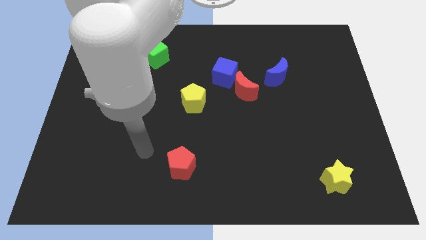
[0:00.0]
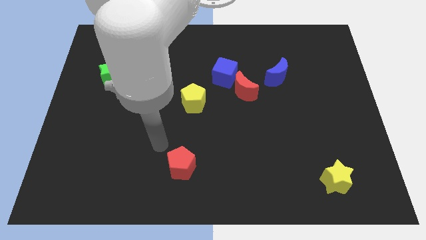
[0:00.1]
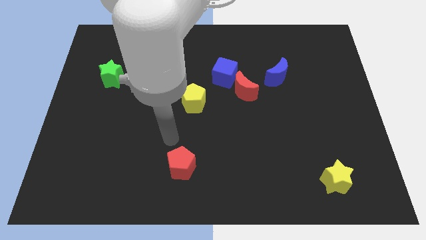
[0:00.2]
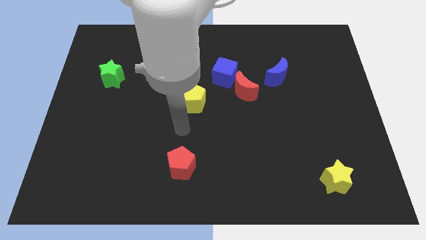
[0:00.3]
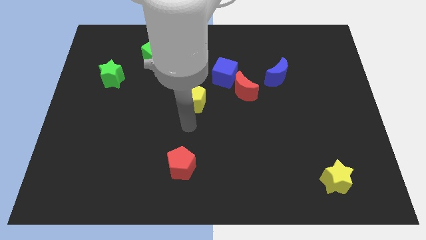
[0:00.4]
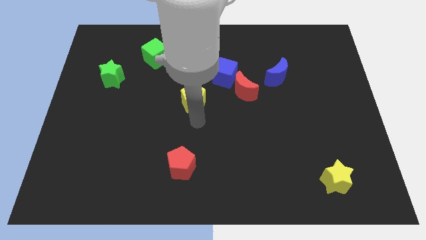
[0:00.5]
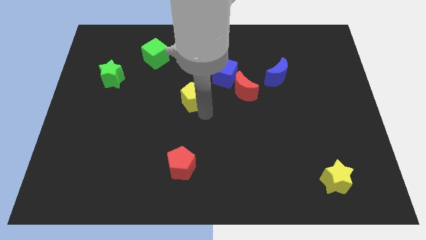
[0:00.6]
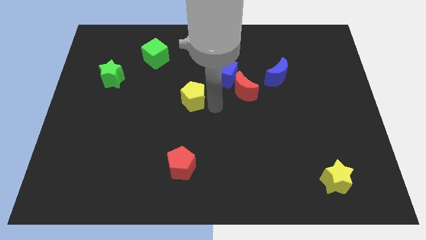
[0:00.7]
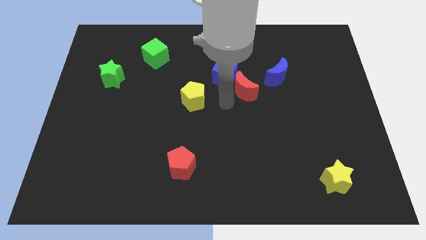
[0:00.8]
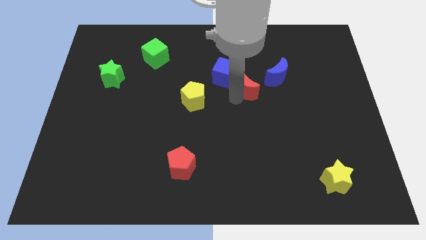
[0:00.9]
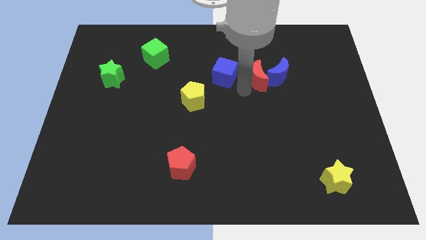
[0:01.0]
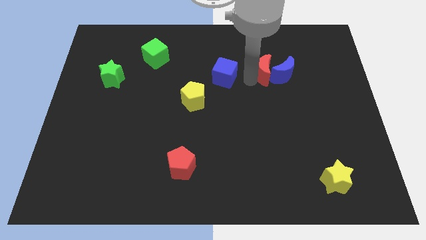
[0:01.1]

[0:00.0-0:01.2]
move the blue cube away from the red moon

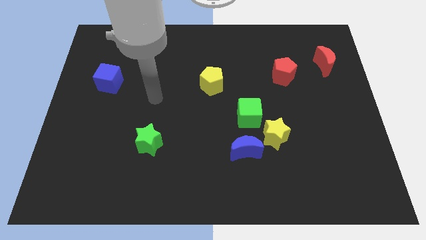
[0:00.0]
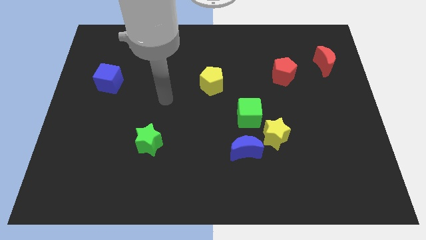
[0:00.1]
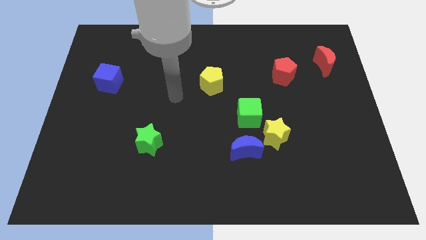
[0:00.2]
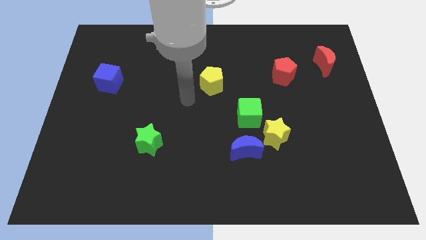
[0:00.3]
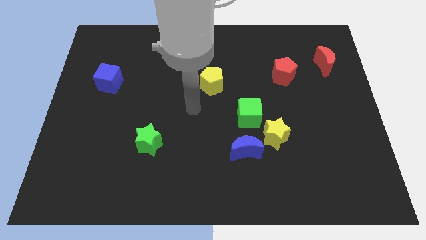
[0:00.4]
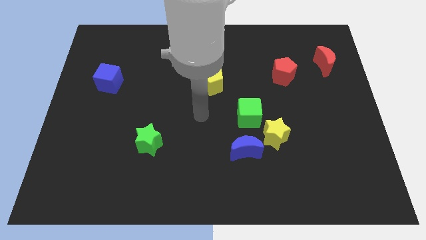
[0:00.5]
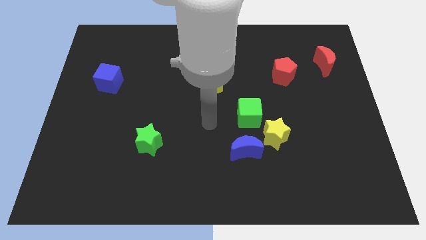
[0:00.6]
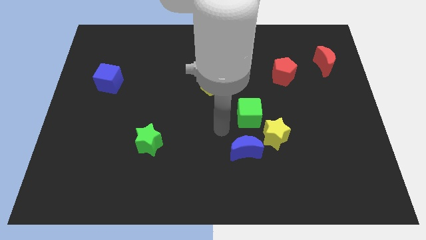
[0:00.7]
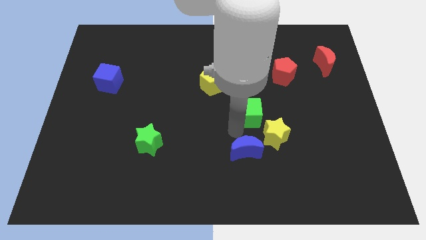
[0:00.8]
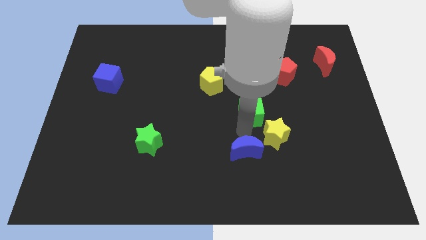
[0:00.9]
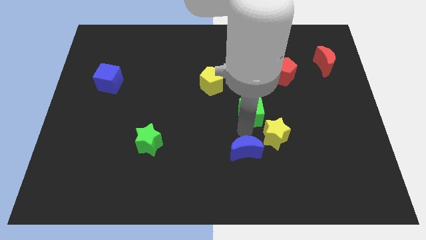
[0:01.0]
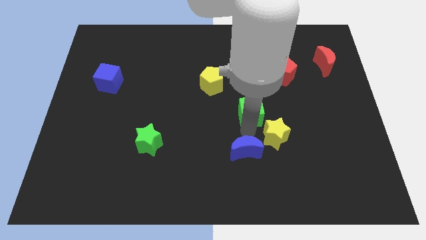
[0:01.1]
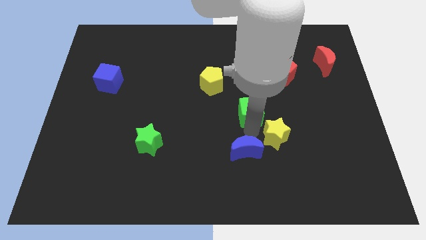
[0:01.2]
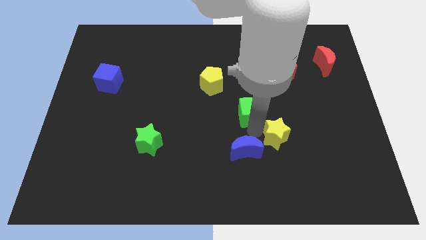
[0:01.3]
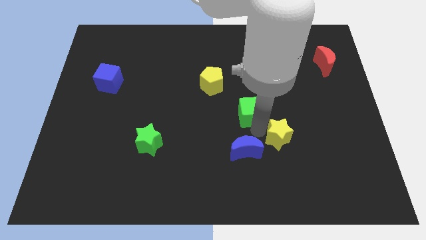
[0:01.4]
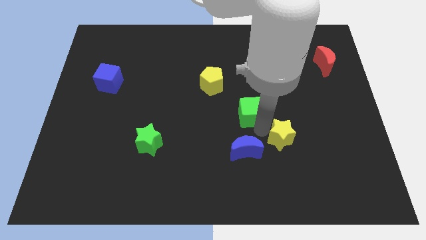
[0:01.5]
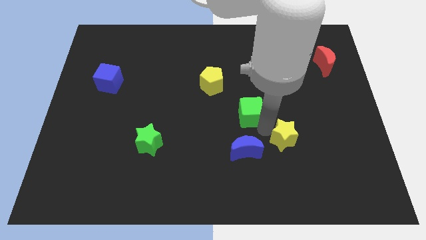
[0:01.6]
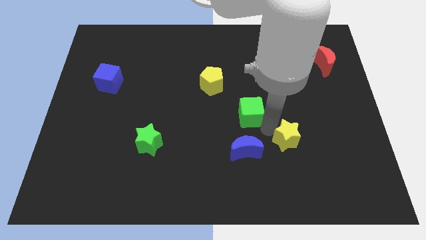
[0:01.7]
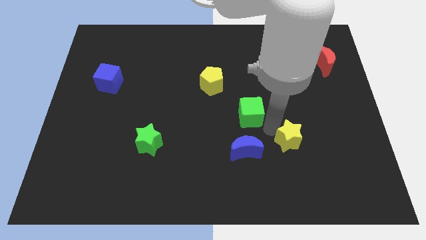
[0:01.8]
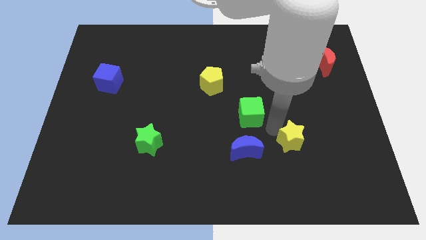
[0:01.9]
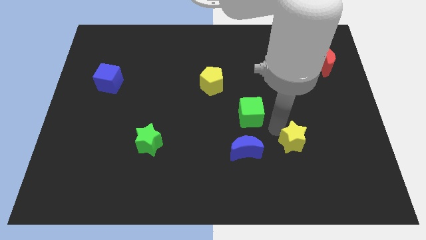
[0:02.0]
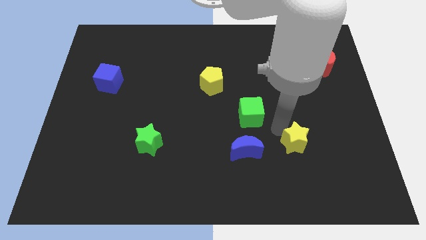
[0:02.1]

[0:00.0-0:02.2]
pull the yellow star apart from the blue moon and green cube

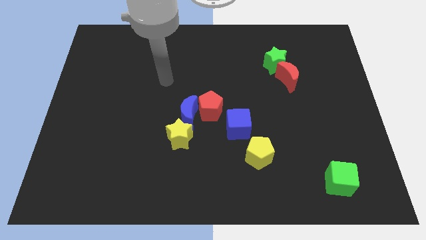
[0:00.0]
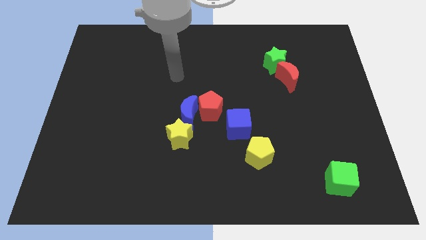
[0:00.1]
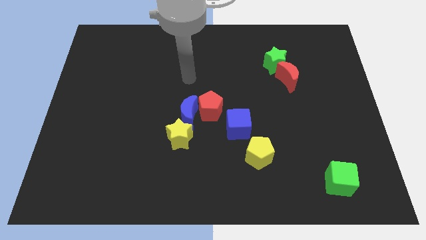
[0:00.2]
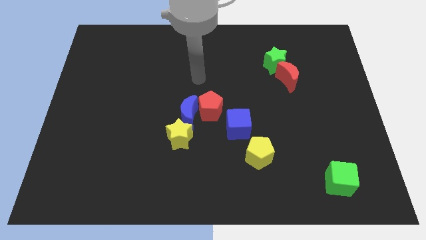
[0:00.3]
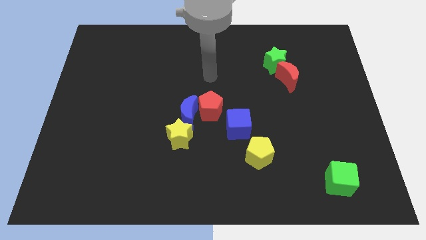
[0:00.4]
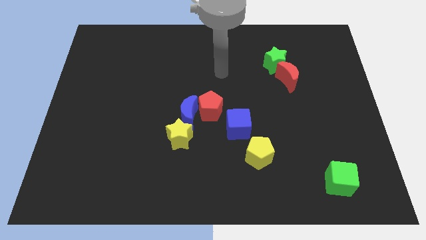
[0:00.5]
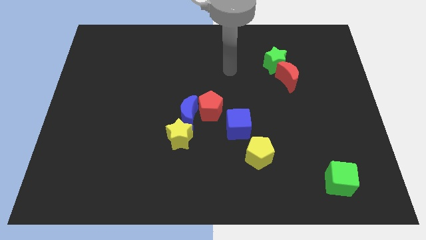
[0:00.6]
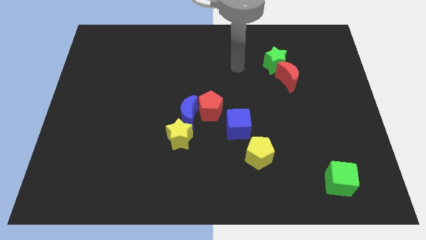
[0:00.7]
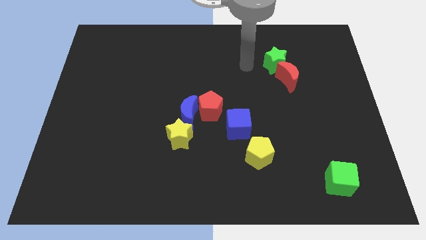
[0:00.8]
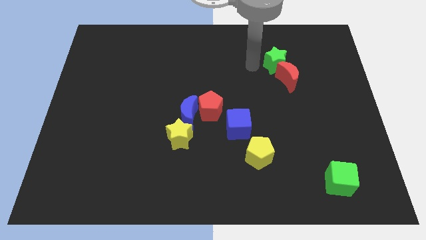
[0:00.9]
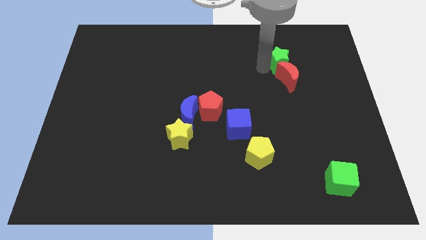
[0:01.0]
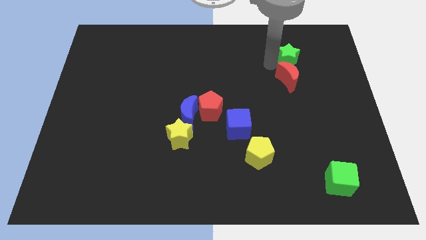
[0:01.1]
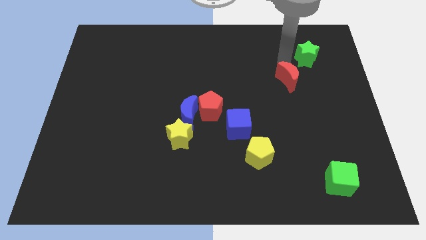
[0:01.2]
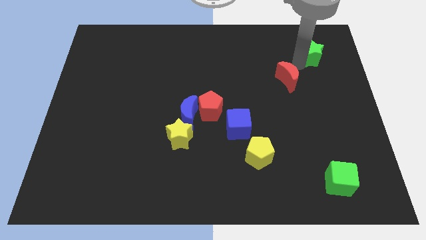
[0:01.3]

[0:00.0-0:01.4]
separate the red moon from the green star

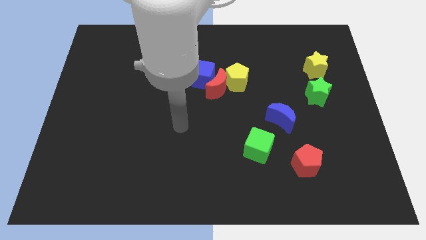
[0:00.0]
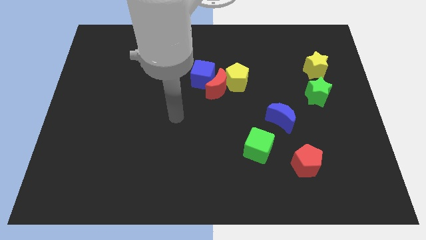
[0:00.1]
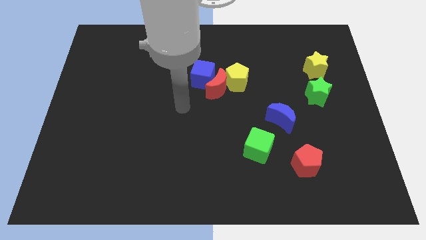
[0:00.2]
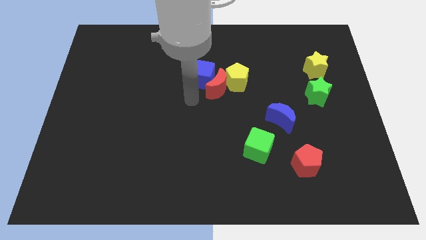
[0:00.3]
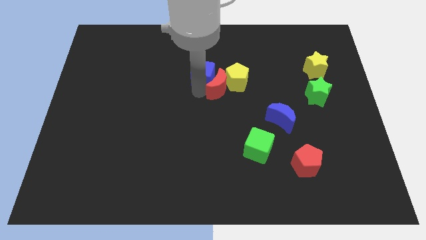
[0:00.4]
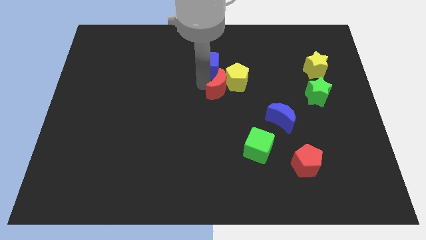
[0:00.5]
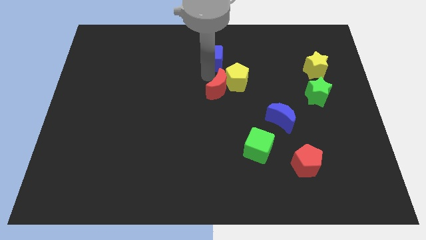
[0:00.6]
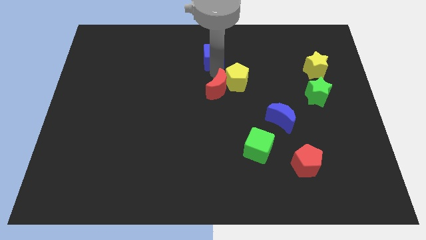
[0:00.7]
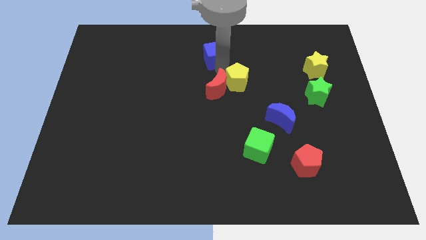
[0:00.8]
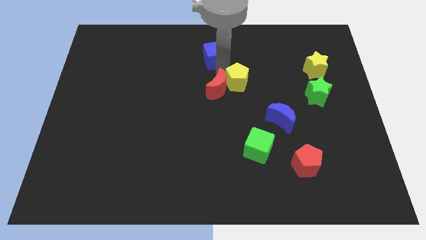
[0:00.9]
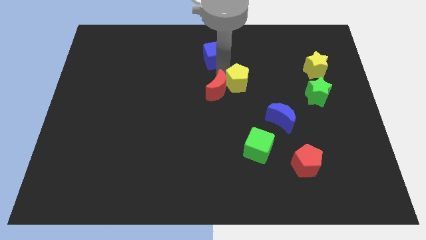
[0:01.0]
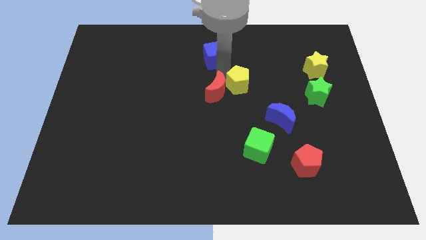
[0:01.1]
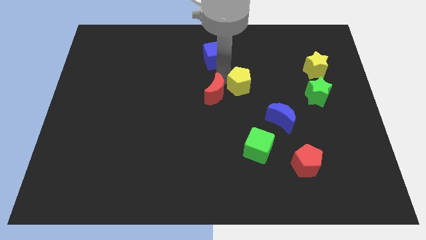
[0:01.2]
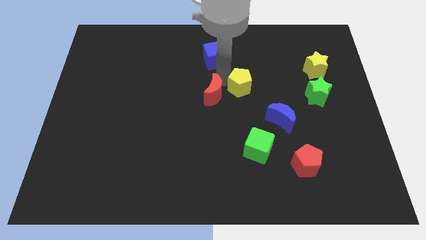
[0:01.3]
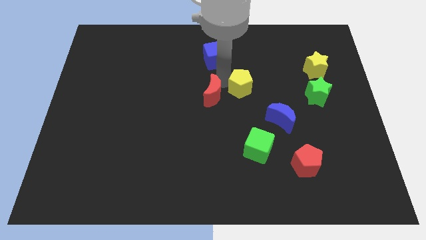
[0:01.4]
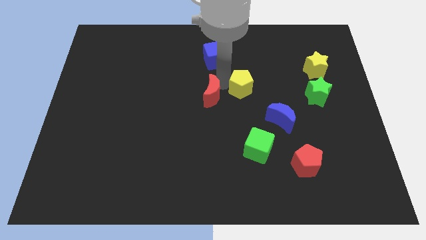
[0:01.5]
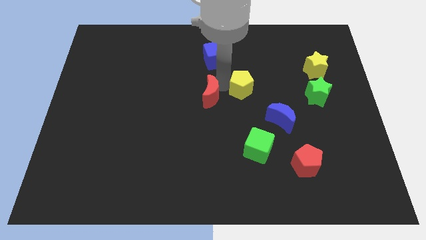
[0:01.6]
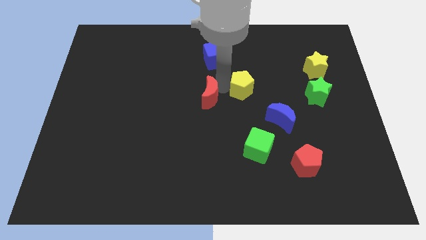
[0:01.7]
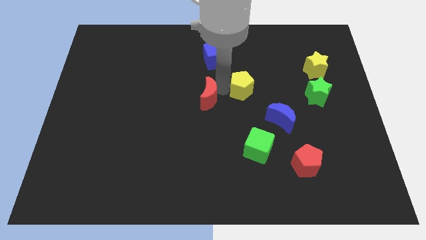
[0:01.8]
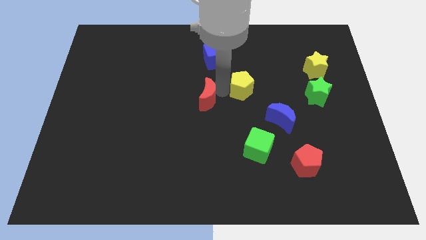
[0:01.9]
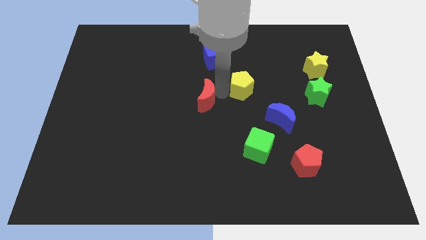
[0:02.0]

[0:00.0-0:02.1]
separate the red moon from the blue cube and yellow pentagon

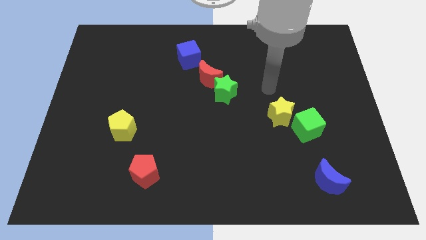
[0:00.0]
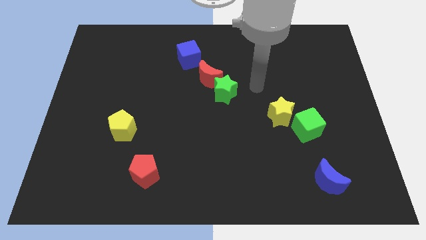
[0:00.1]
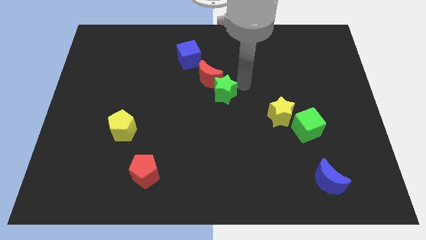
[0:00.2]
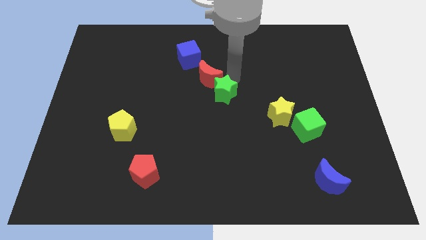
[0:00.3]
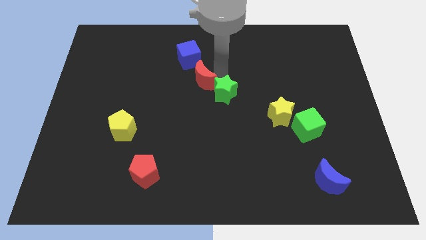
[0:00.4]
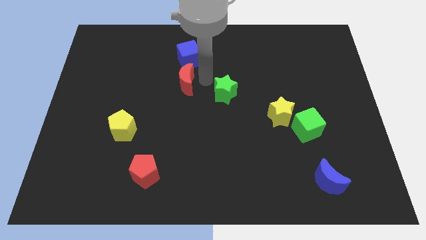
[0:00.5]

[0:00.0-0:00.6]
separate the green star from the red moon

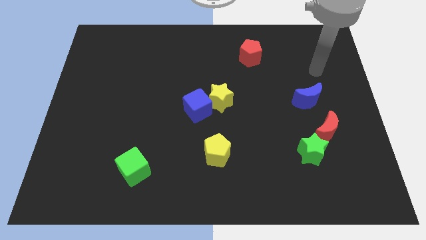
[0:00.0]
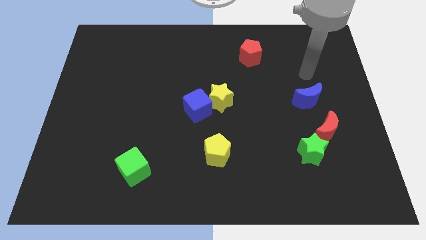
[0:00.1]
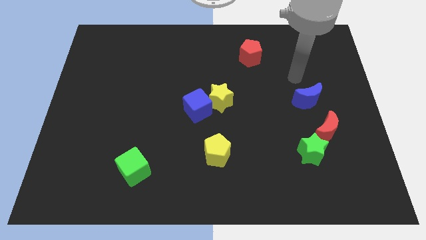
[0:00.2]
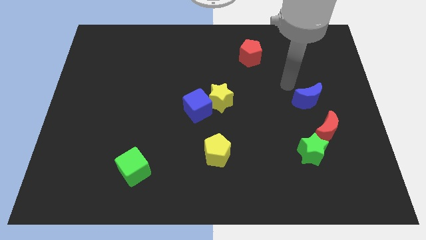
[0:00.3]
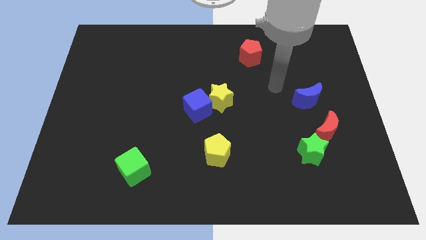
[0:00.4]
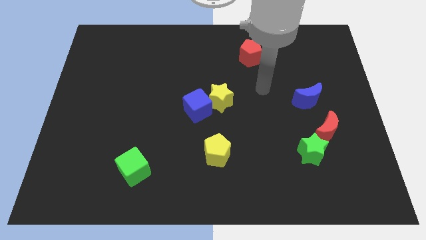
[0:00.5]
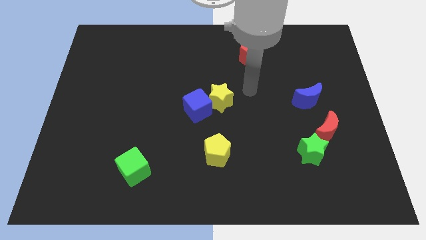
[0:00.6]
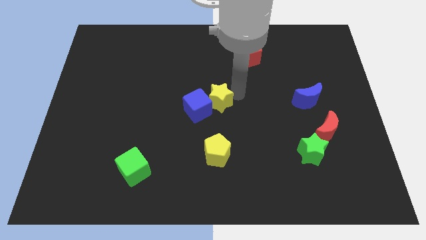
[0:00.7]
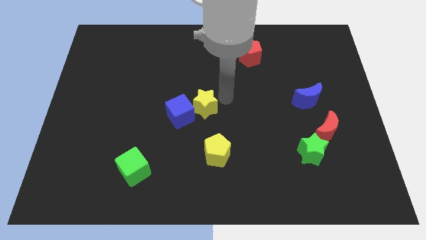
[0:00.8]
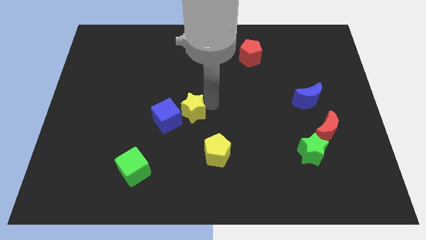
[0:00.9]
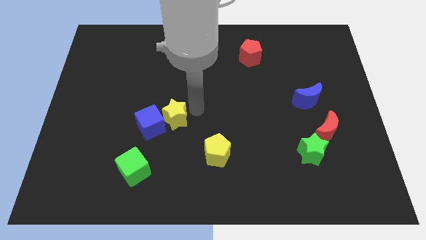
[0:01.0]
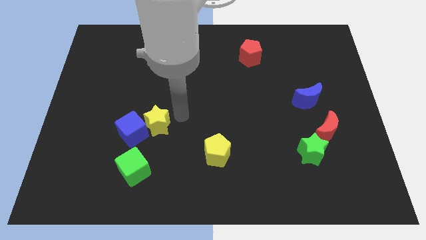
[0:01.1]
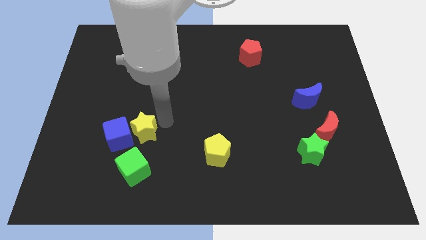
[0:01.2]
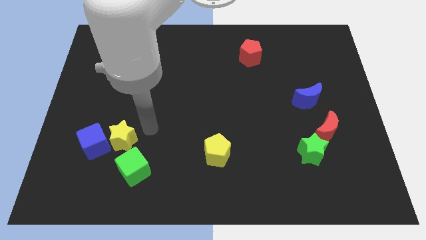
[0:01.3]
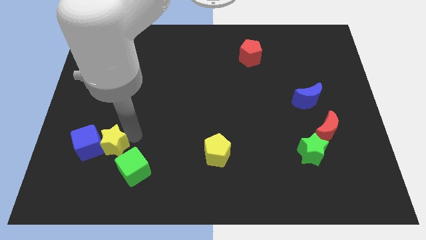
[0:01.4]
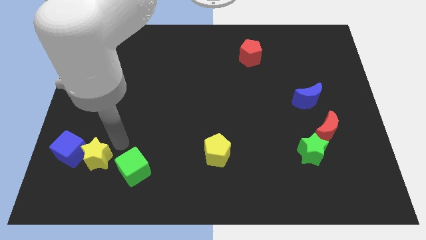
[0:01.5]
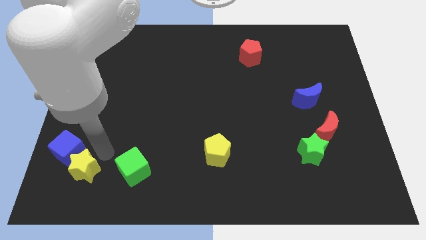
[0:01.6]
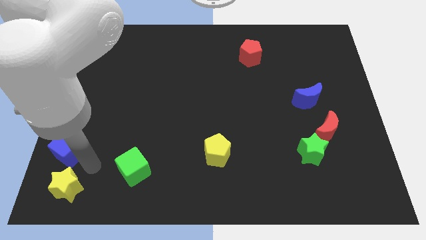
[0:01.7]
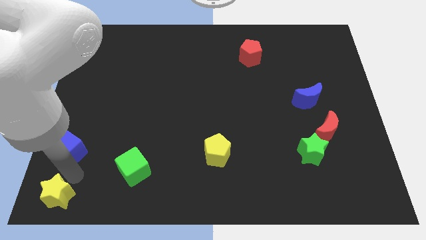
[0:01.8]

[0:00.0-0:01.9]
move the blue cube away from the yellow star
